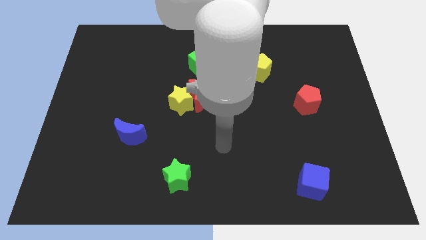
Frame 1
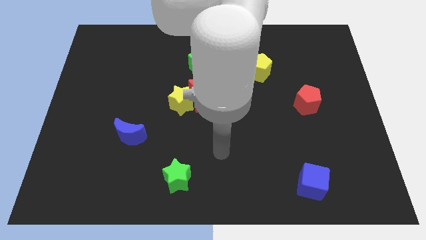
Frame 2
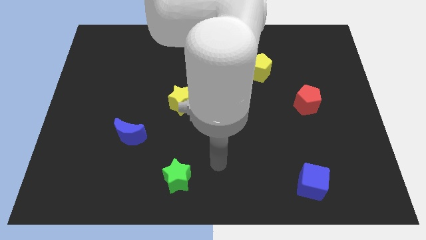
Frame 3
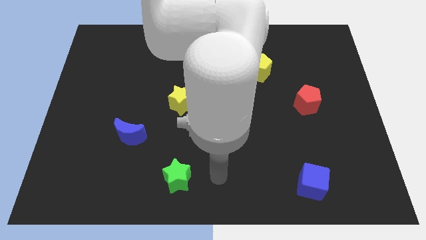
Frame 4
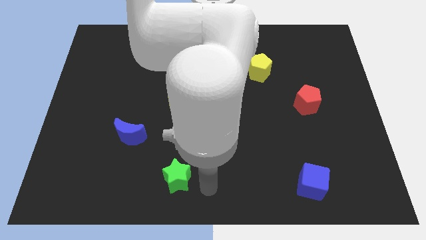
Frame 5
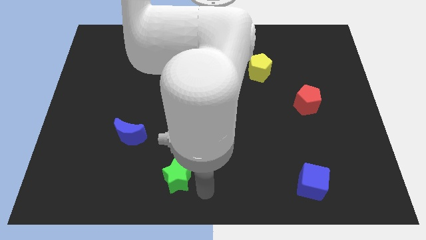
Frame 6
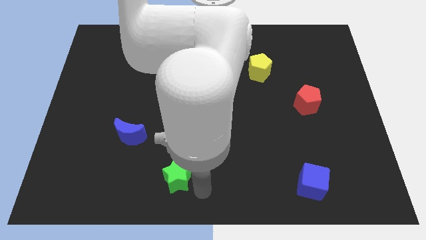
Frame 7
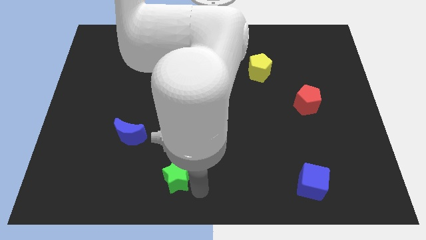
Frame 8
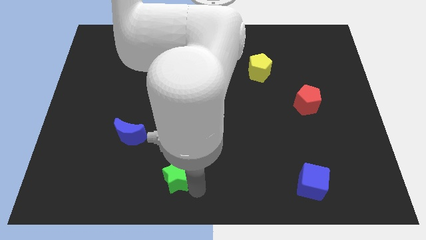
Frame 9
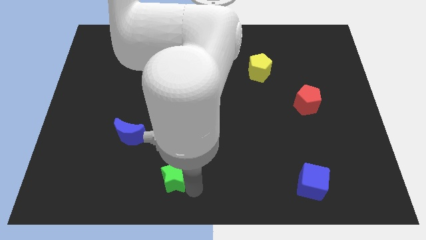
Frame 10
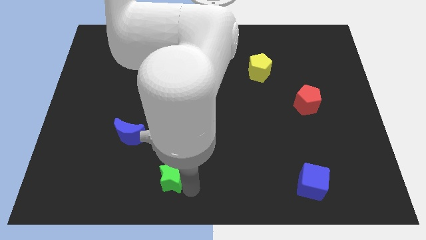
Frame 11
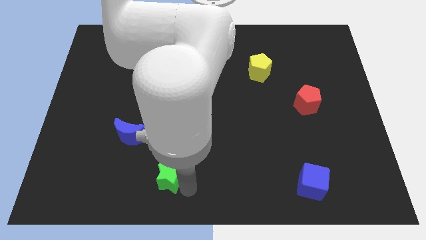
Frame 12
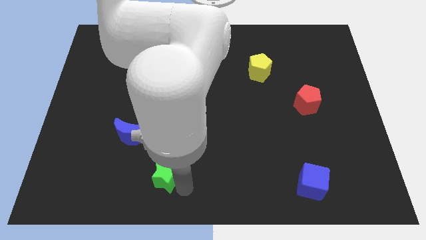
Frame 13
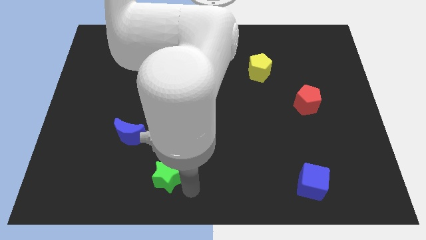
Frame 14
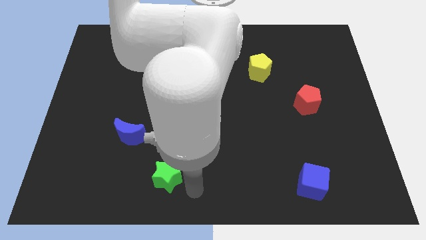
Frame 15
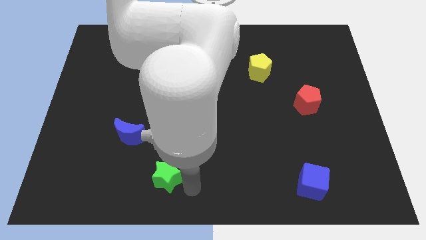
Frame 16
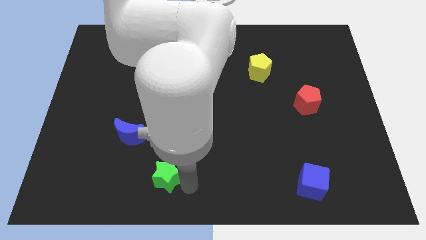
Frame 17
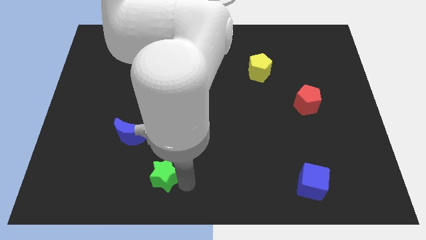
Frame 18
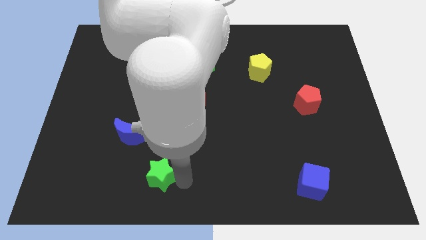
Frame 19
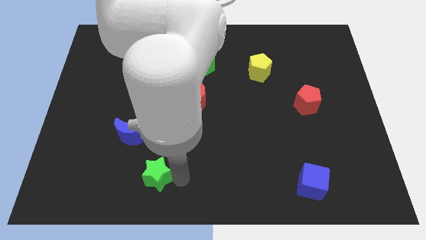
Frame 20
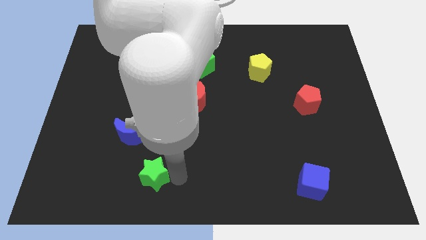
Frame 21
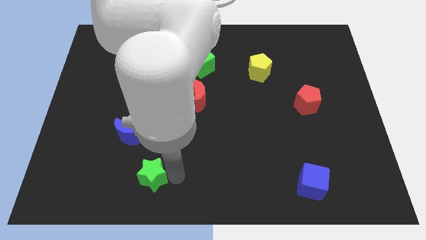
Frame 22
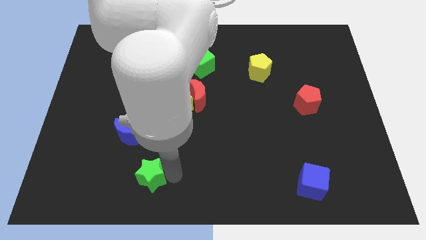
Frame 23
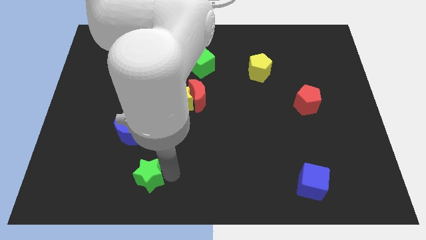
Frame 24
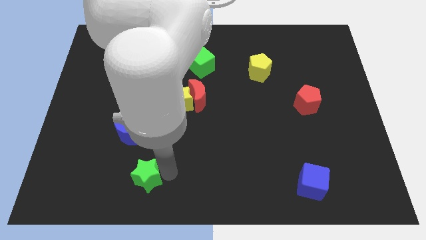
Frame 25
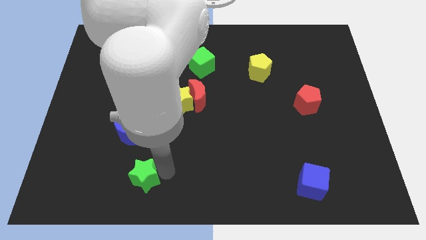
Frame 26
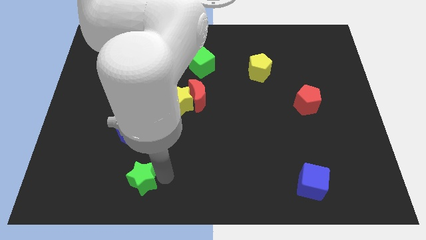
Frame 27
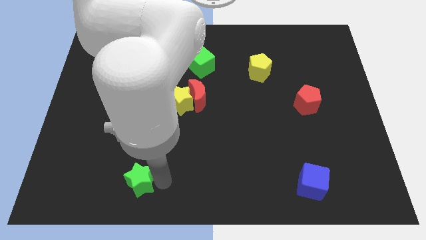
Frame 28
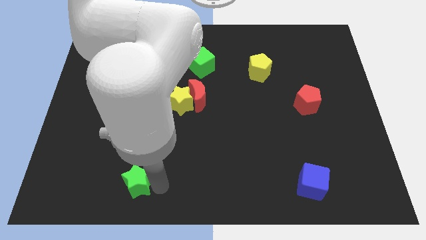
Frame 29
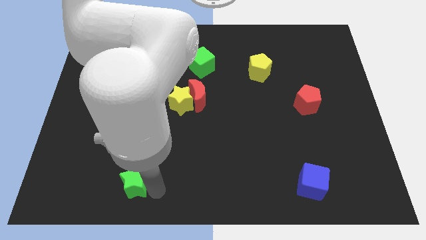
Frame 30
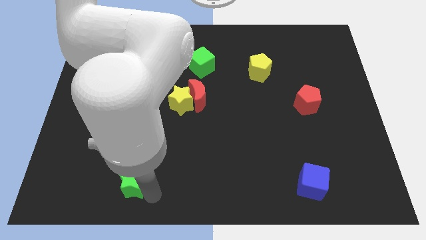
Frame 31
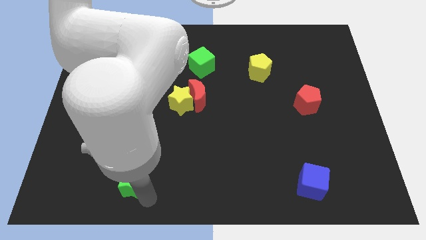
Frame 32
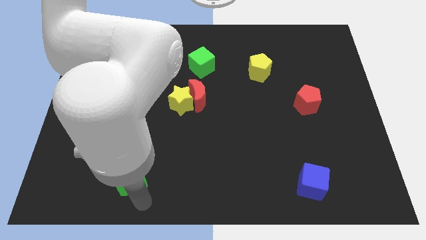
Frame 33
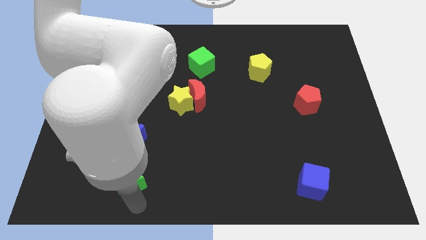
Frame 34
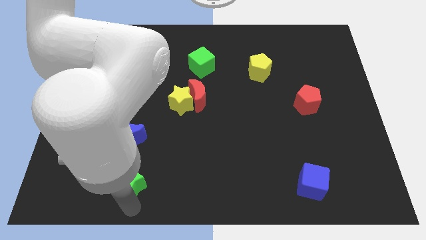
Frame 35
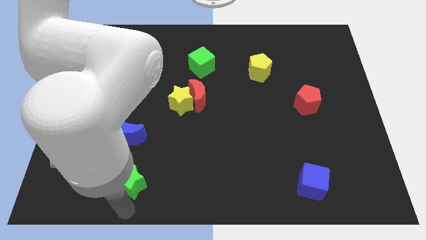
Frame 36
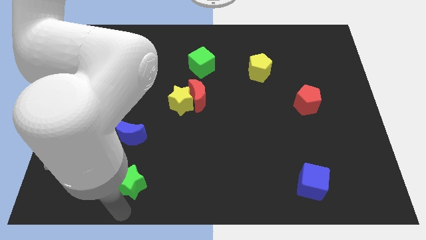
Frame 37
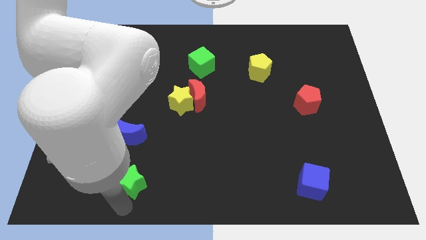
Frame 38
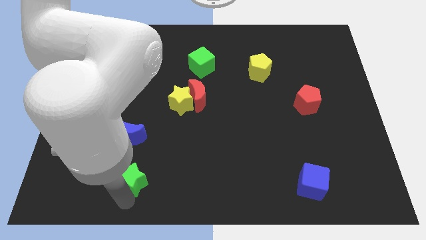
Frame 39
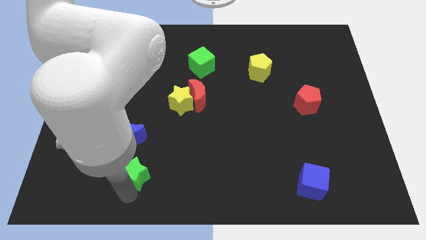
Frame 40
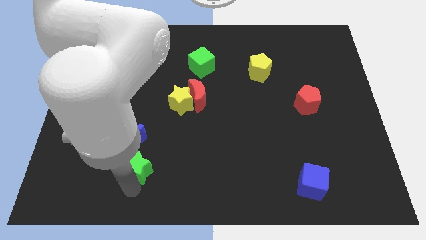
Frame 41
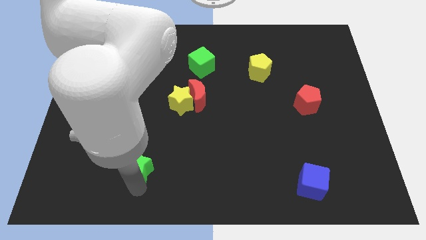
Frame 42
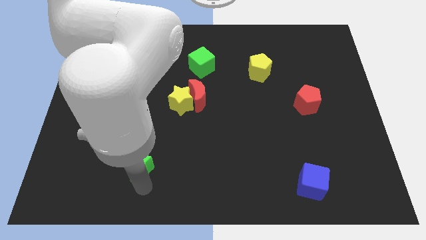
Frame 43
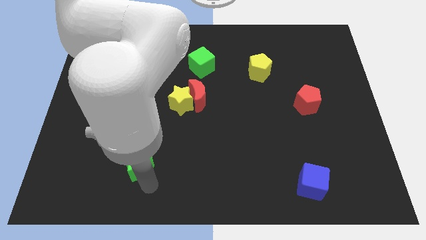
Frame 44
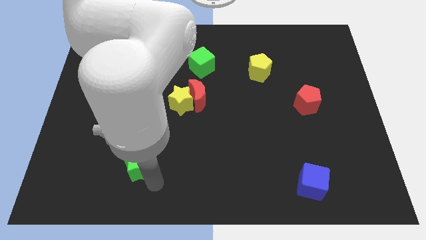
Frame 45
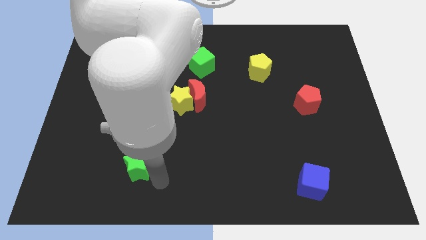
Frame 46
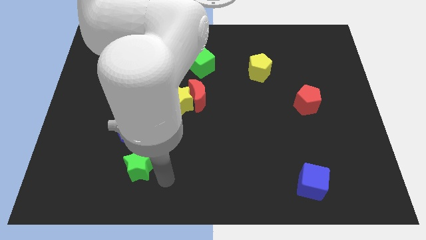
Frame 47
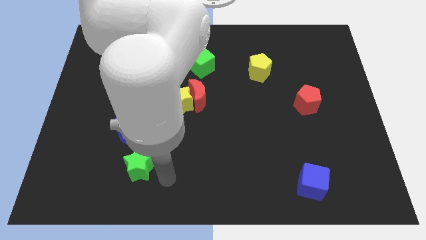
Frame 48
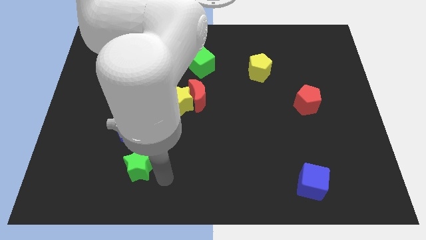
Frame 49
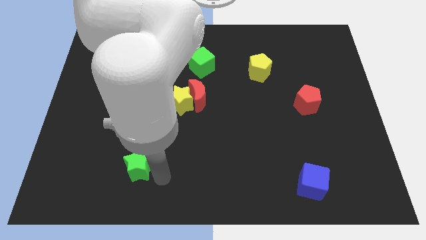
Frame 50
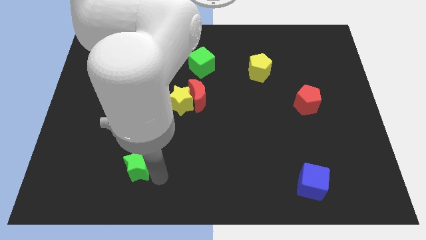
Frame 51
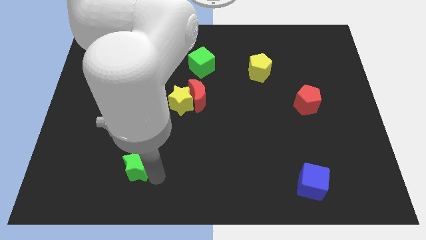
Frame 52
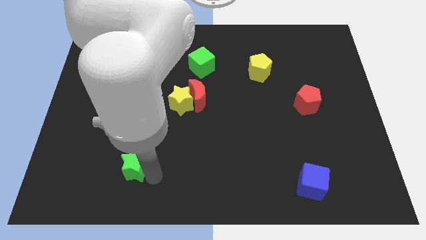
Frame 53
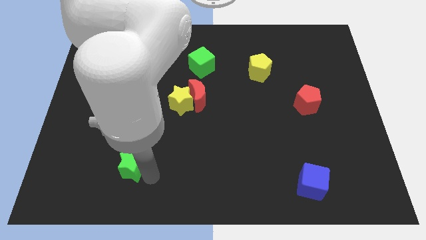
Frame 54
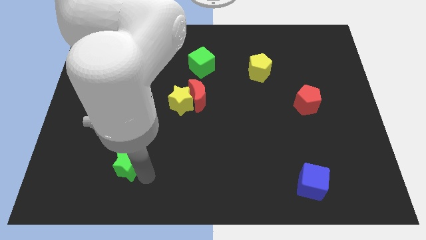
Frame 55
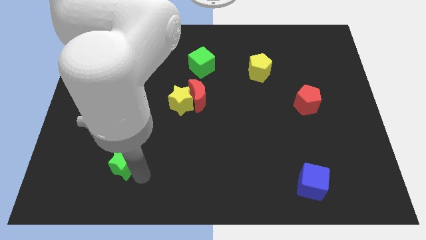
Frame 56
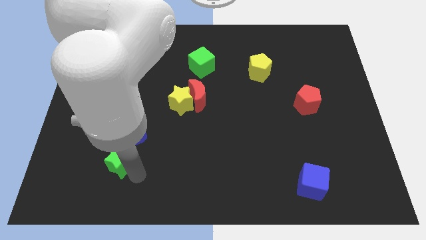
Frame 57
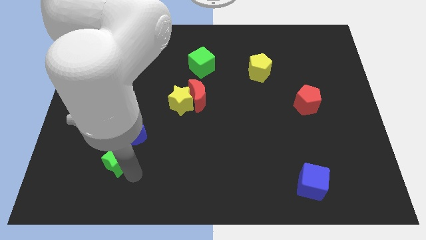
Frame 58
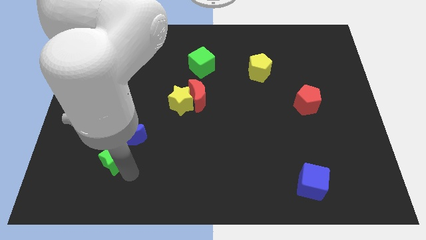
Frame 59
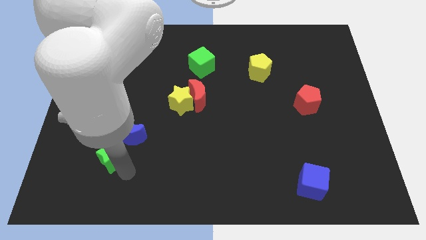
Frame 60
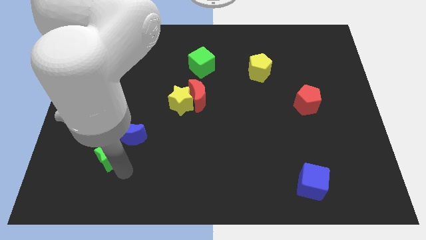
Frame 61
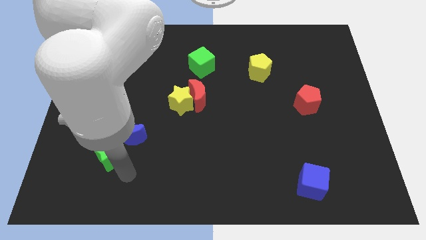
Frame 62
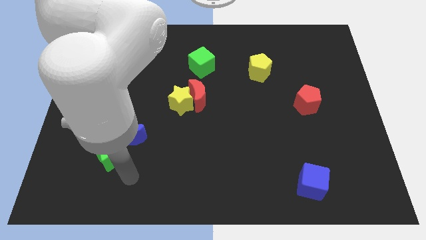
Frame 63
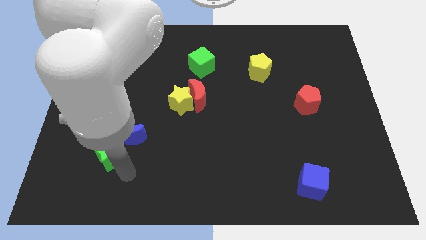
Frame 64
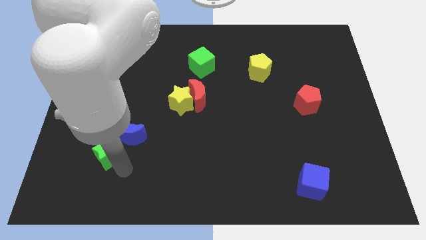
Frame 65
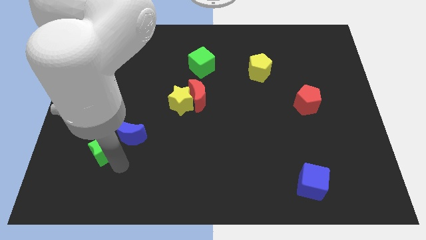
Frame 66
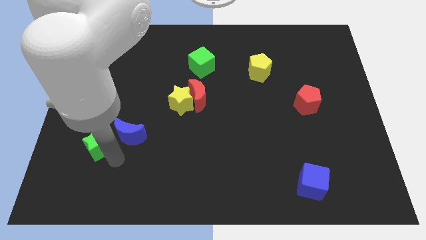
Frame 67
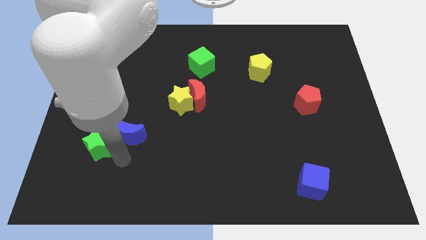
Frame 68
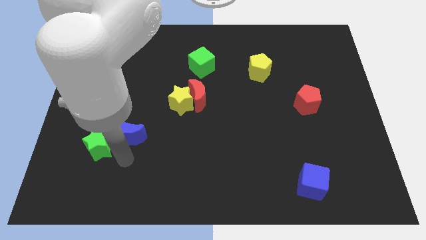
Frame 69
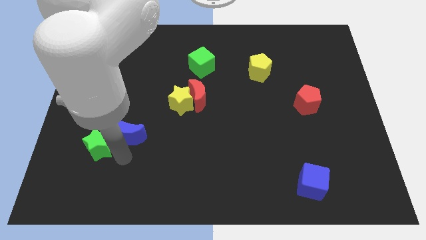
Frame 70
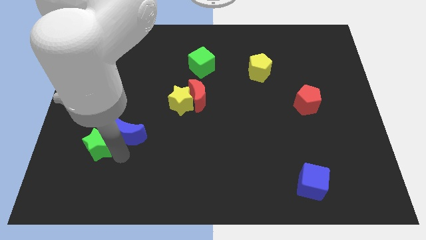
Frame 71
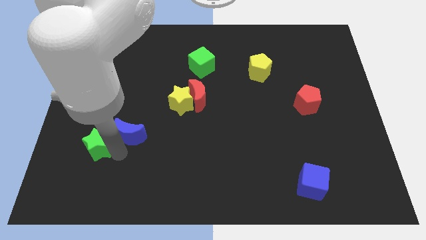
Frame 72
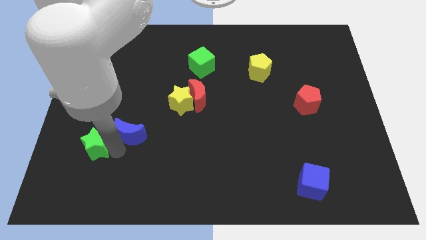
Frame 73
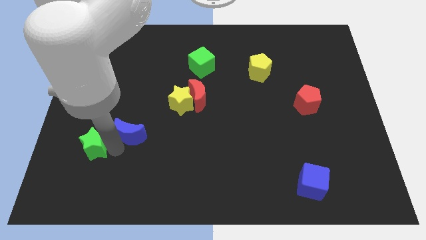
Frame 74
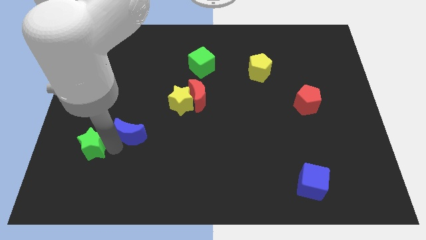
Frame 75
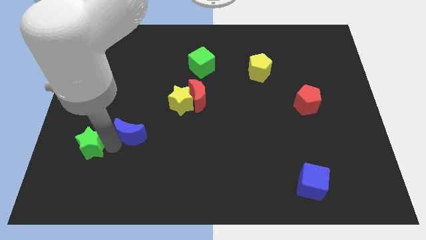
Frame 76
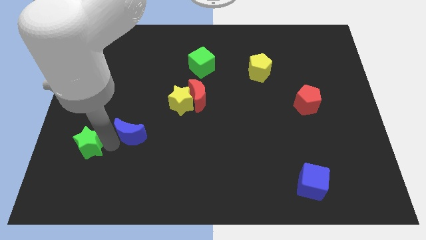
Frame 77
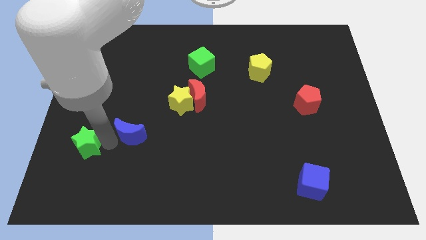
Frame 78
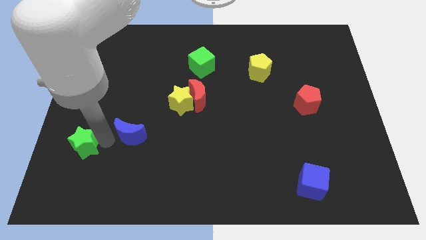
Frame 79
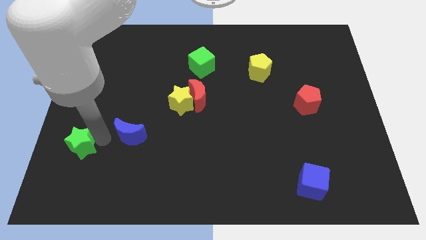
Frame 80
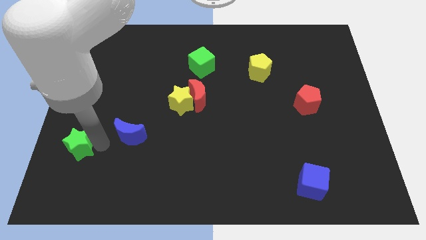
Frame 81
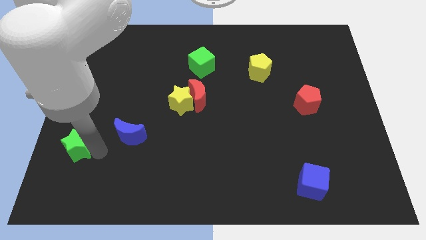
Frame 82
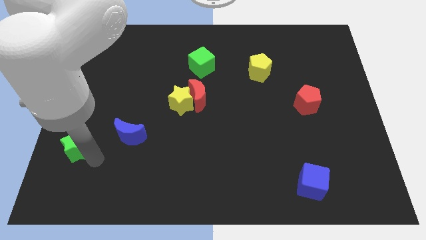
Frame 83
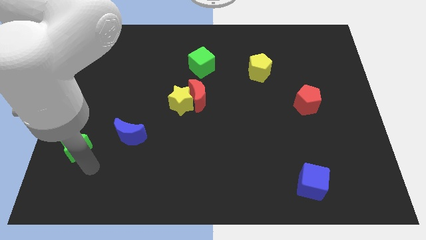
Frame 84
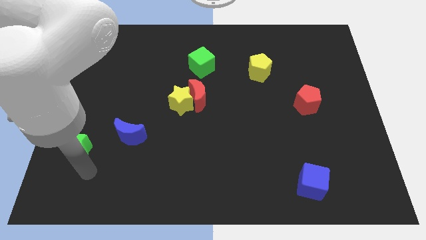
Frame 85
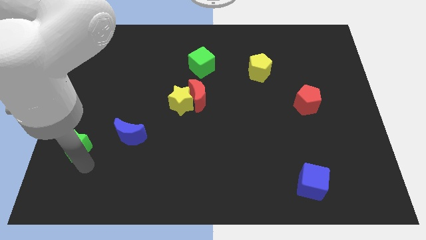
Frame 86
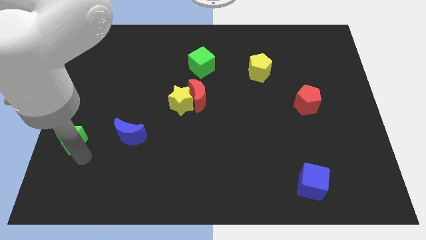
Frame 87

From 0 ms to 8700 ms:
slide the green star to the left side
